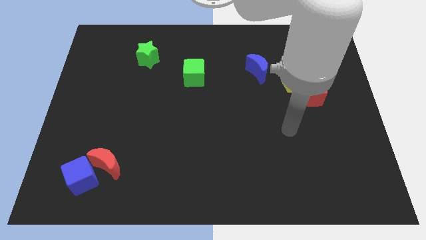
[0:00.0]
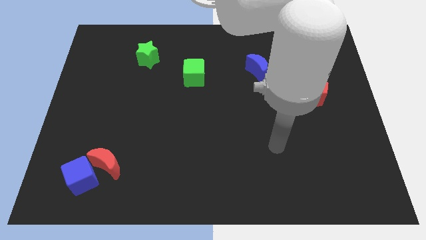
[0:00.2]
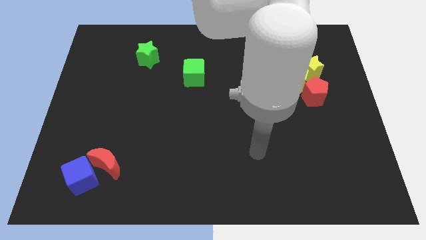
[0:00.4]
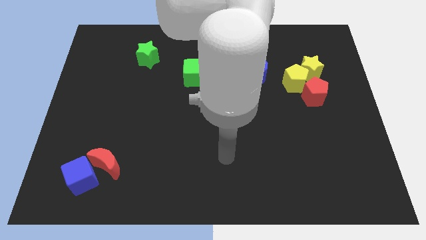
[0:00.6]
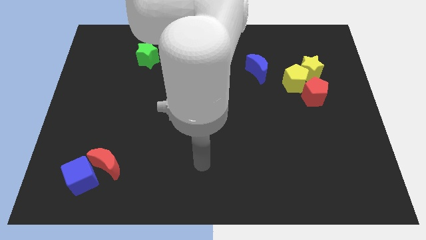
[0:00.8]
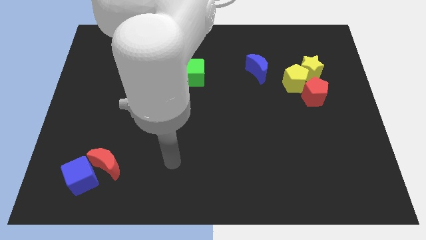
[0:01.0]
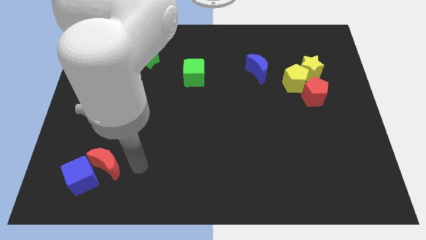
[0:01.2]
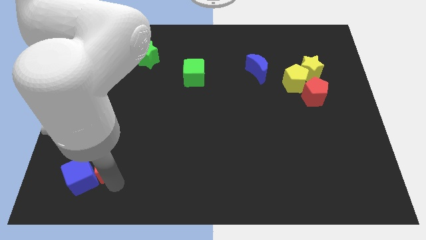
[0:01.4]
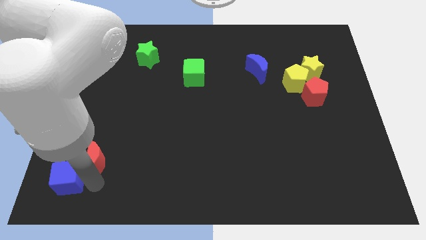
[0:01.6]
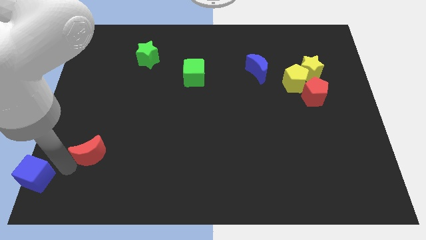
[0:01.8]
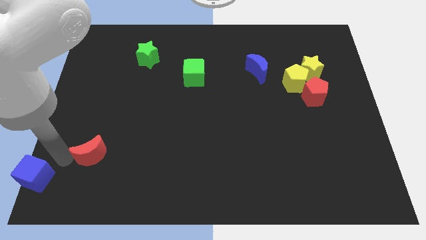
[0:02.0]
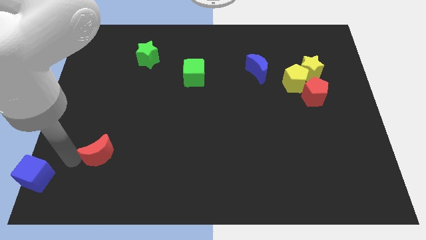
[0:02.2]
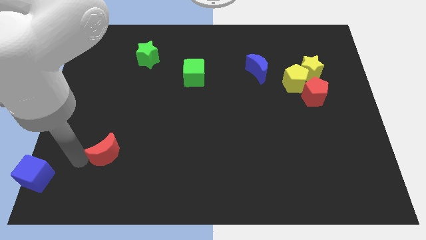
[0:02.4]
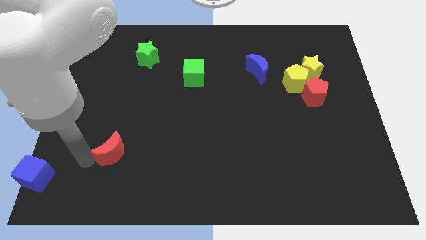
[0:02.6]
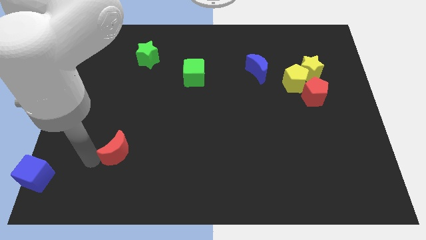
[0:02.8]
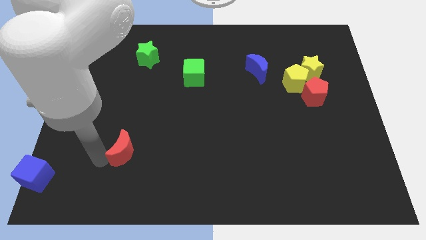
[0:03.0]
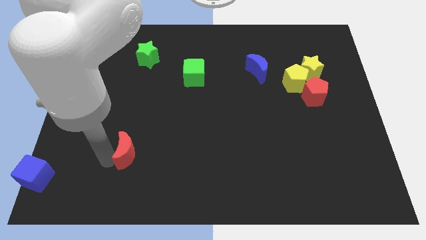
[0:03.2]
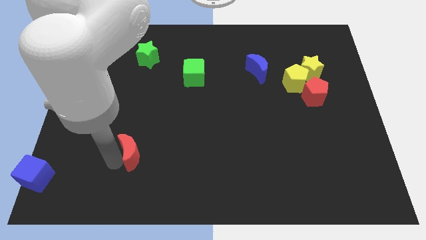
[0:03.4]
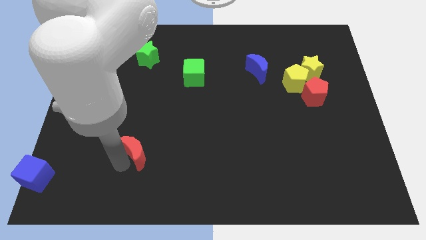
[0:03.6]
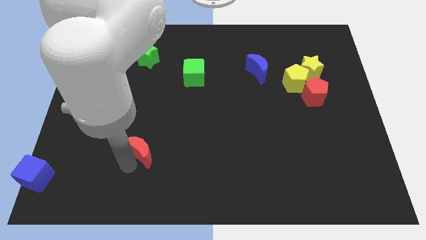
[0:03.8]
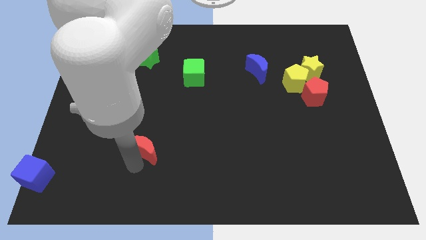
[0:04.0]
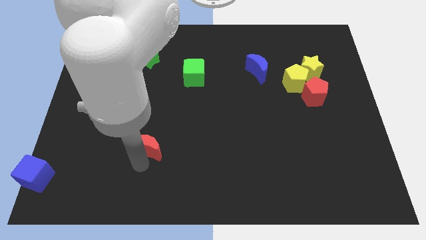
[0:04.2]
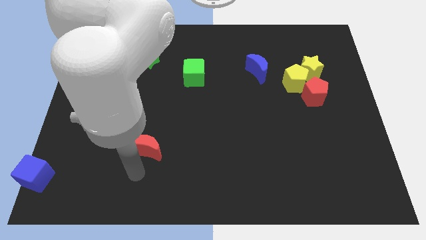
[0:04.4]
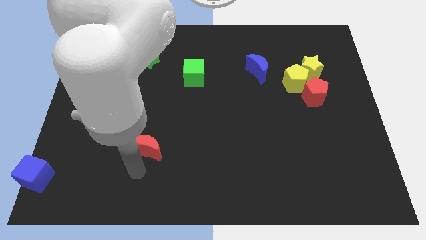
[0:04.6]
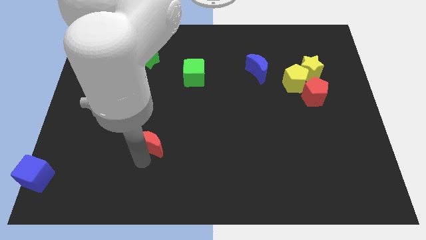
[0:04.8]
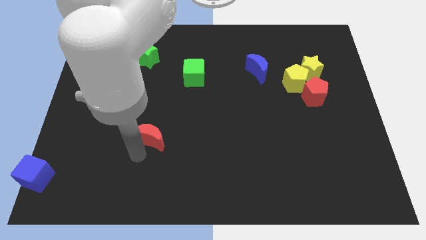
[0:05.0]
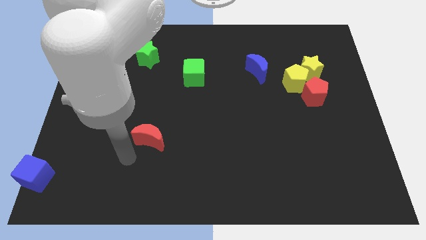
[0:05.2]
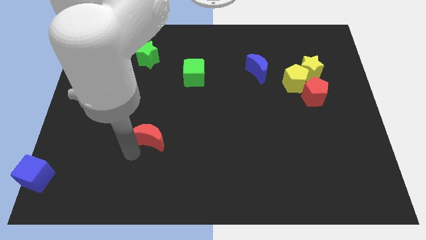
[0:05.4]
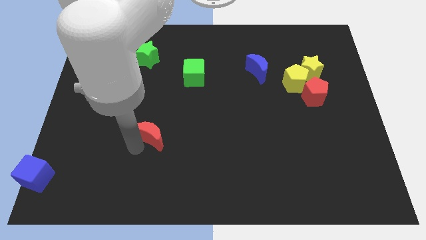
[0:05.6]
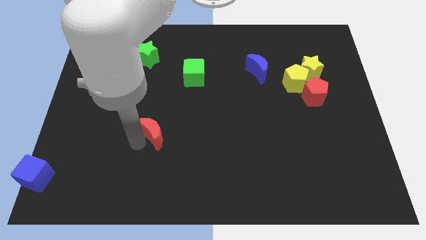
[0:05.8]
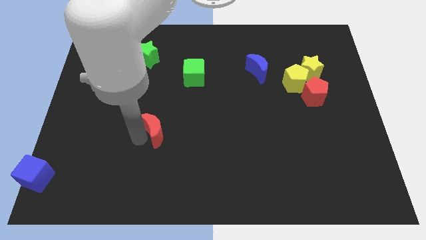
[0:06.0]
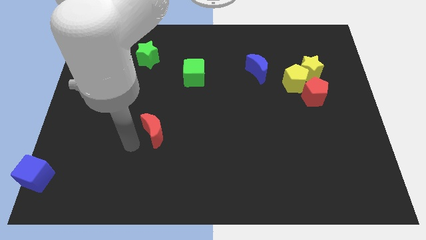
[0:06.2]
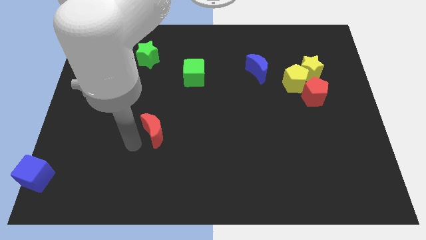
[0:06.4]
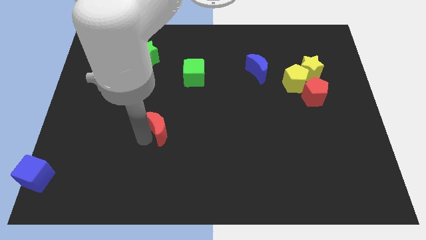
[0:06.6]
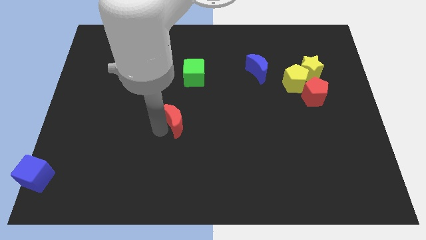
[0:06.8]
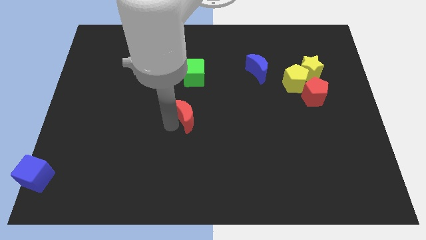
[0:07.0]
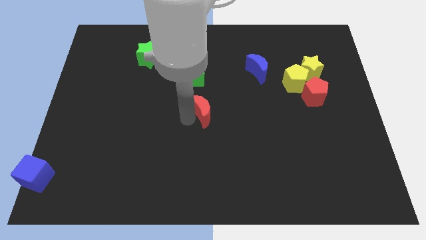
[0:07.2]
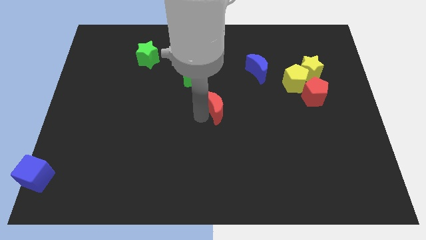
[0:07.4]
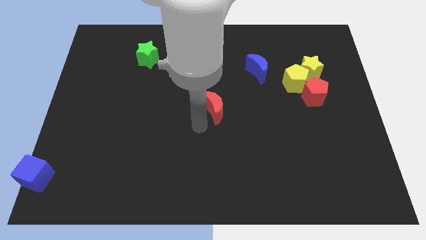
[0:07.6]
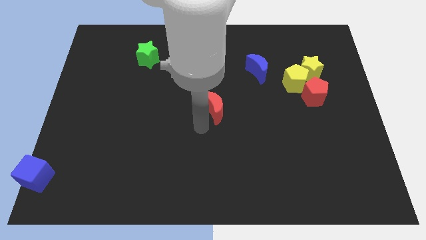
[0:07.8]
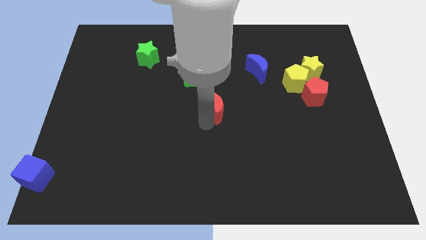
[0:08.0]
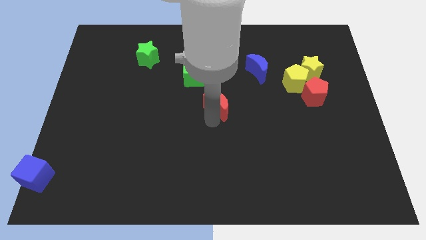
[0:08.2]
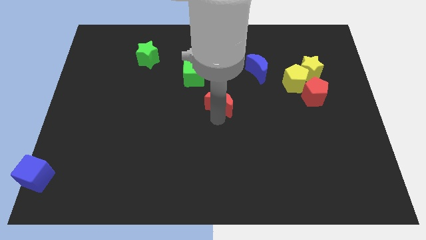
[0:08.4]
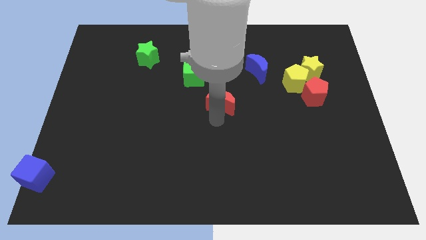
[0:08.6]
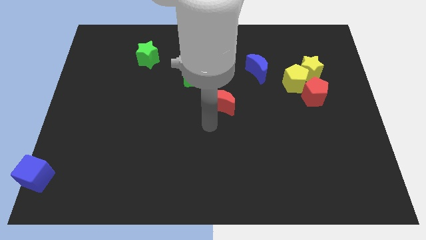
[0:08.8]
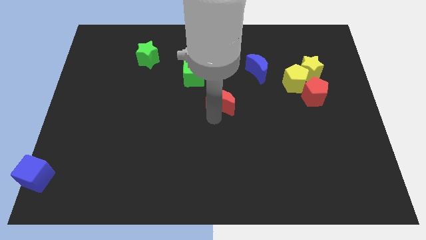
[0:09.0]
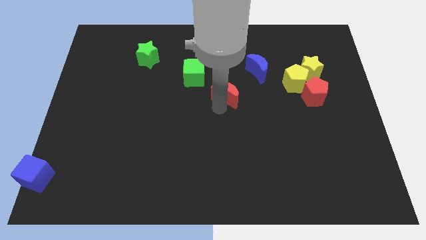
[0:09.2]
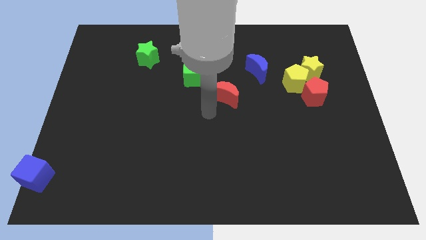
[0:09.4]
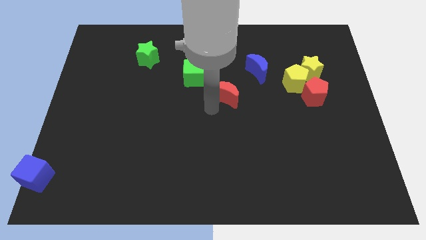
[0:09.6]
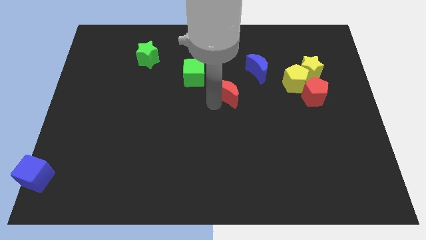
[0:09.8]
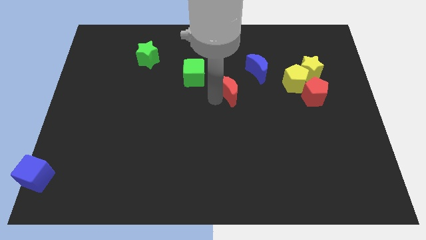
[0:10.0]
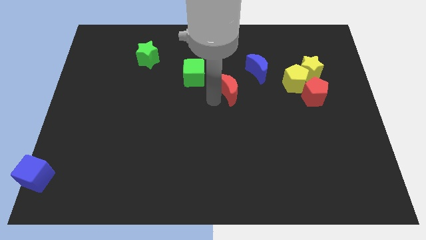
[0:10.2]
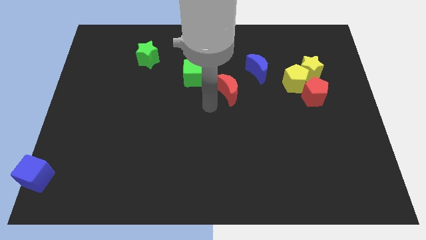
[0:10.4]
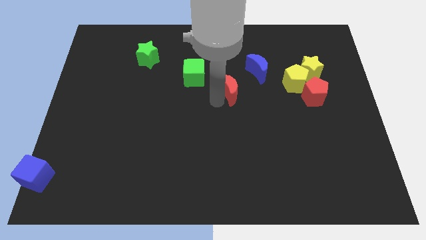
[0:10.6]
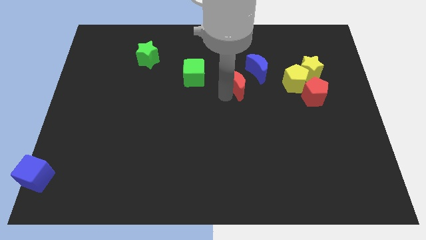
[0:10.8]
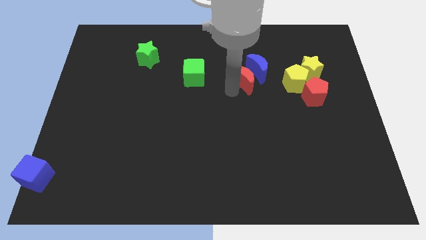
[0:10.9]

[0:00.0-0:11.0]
push the red moon to the blue moon
